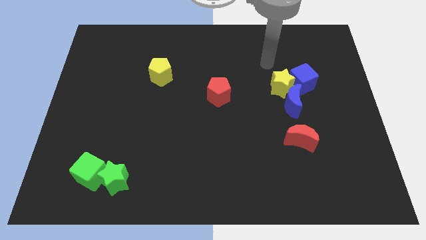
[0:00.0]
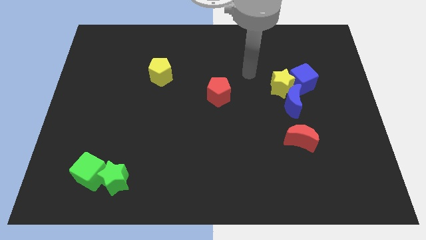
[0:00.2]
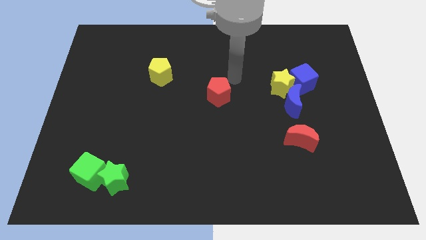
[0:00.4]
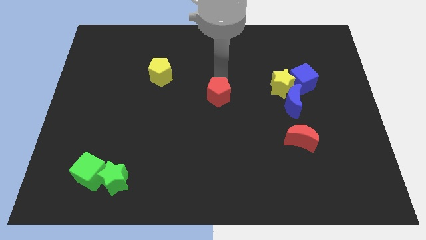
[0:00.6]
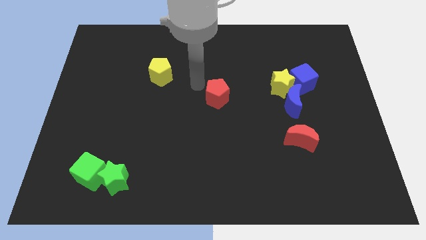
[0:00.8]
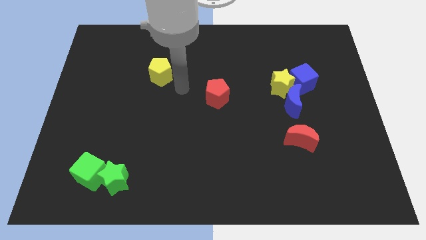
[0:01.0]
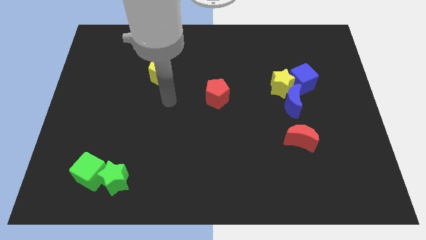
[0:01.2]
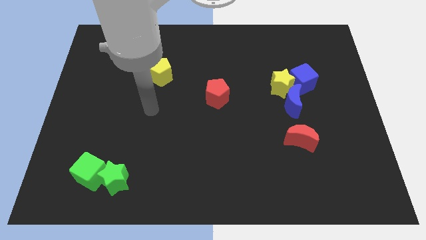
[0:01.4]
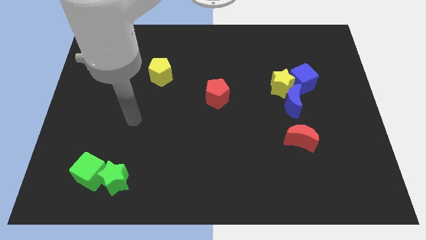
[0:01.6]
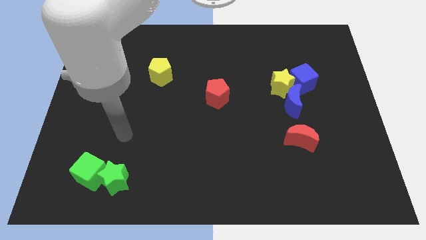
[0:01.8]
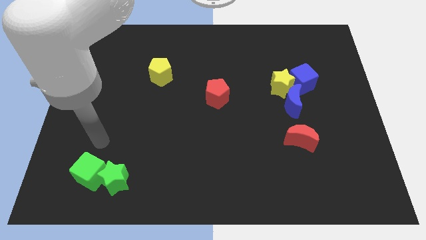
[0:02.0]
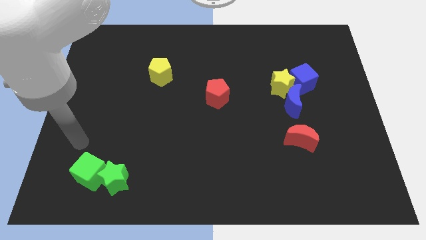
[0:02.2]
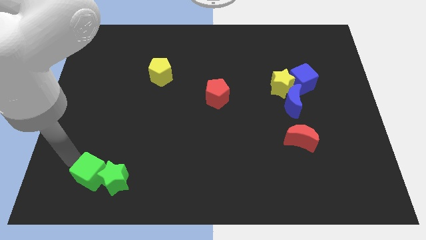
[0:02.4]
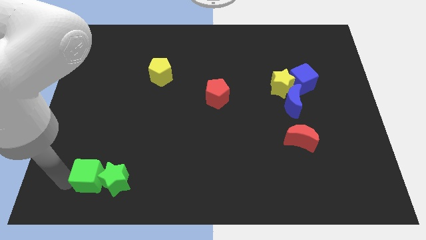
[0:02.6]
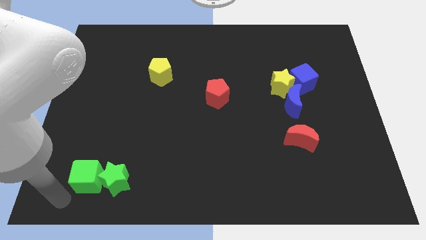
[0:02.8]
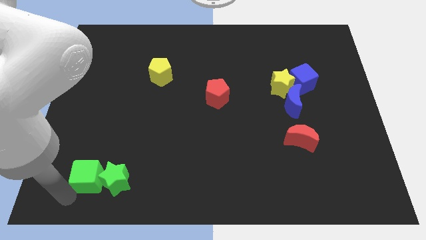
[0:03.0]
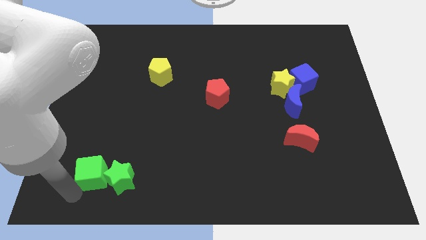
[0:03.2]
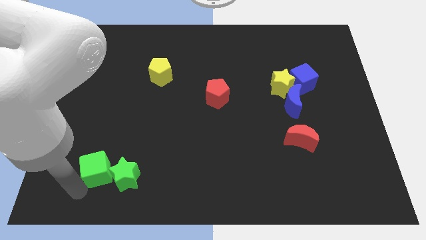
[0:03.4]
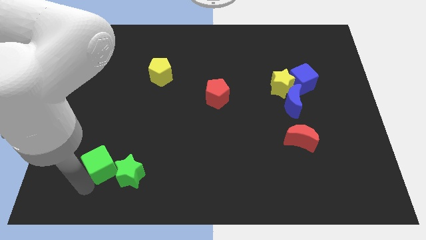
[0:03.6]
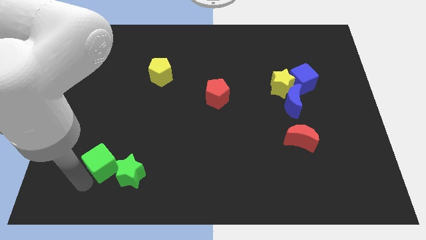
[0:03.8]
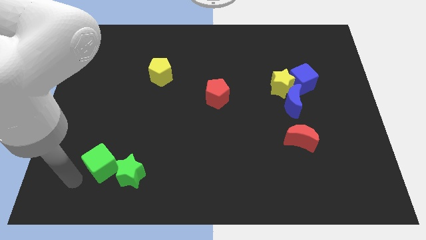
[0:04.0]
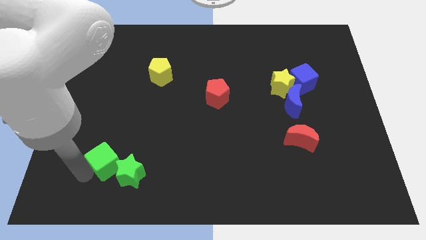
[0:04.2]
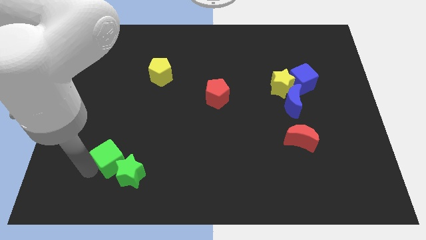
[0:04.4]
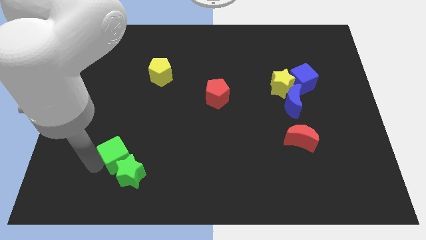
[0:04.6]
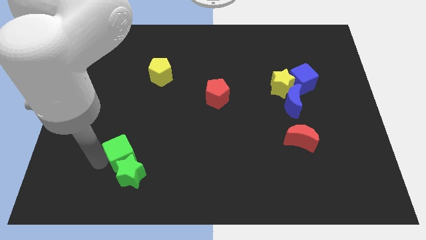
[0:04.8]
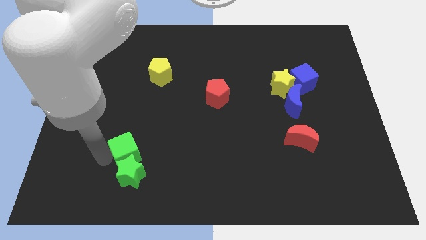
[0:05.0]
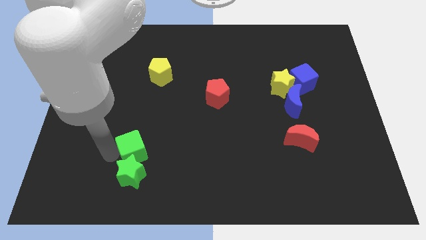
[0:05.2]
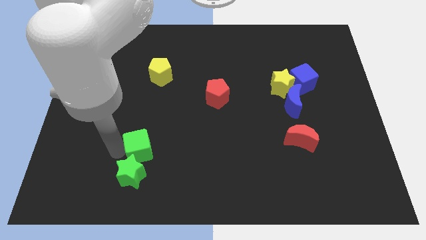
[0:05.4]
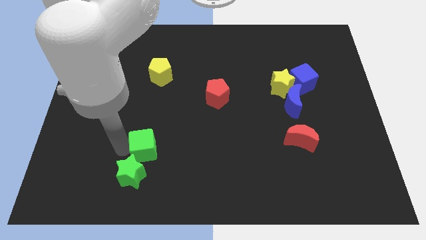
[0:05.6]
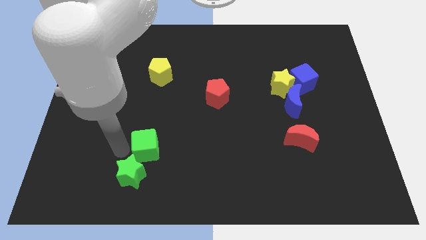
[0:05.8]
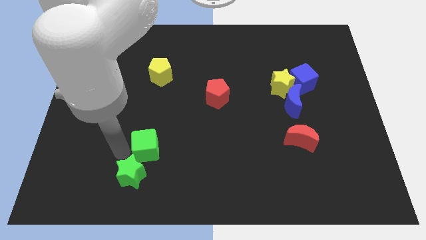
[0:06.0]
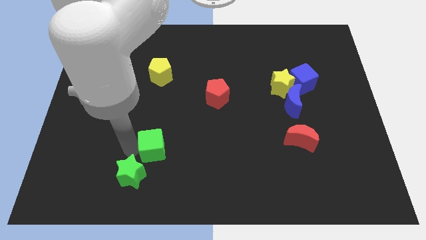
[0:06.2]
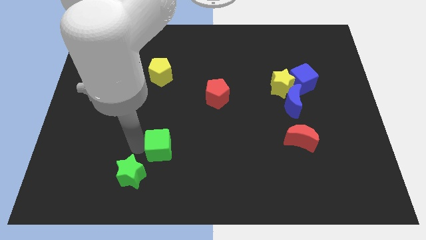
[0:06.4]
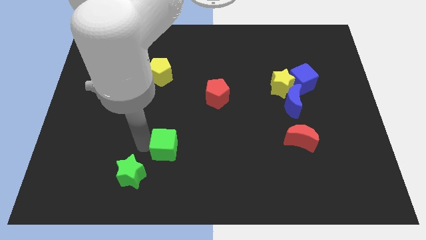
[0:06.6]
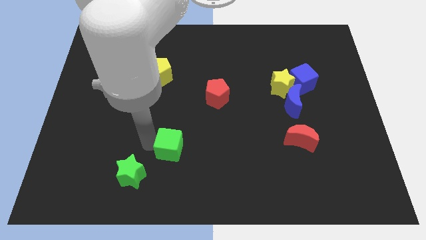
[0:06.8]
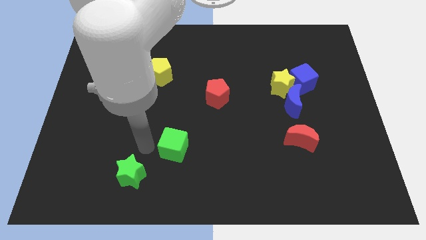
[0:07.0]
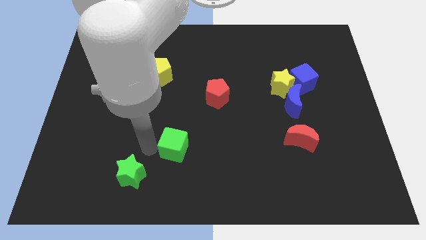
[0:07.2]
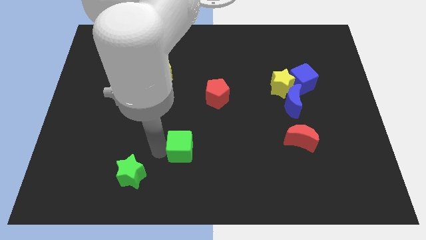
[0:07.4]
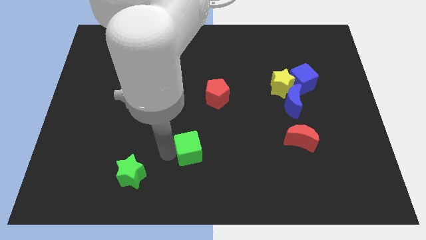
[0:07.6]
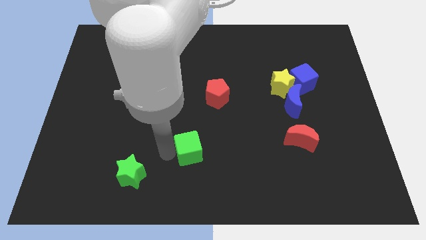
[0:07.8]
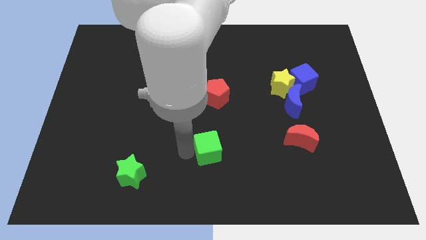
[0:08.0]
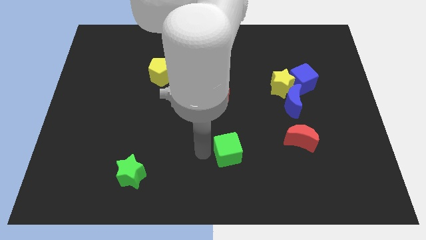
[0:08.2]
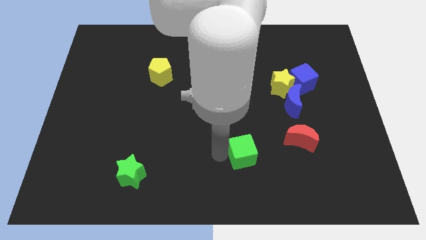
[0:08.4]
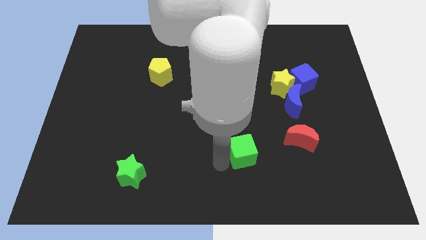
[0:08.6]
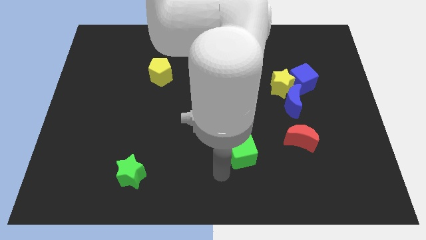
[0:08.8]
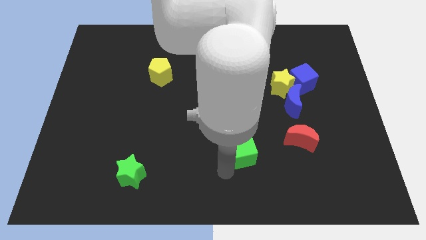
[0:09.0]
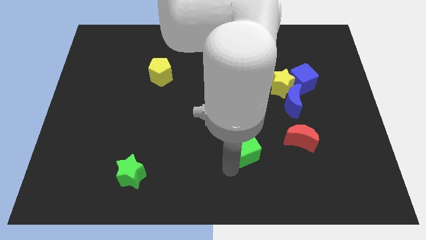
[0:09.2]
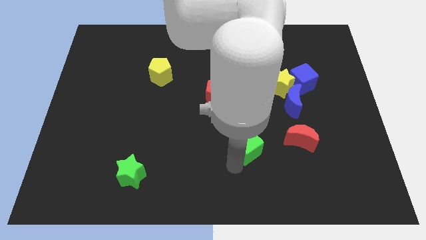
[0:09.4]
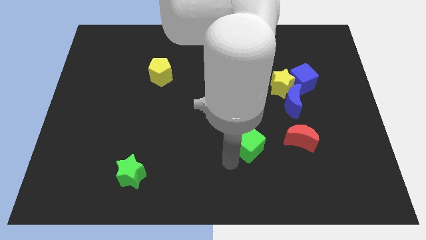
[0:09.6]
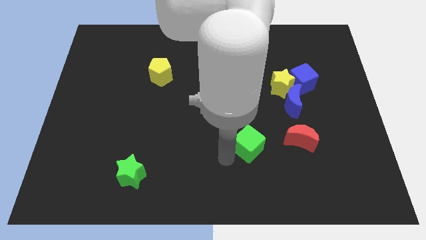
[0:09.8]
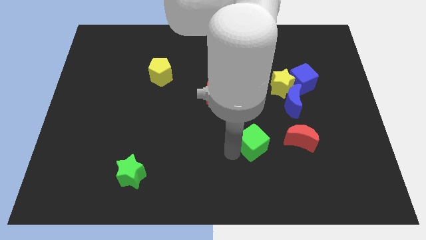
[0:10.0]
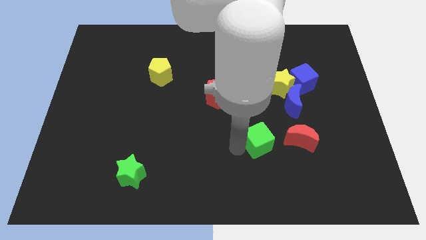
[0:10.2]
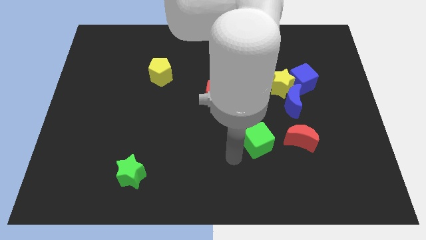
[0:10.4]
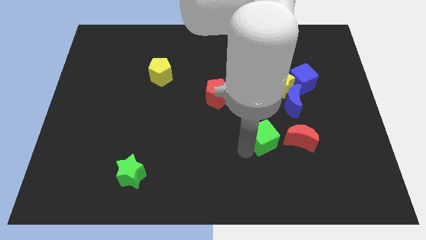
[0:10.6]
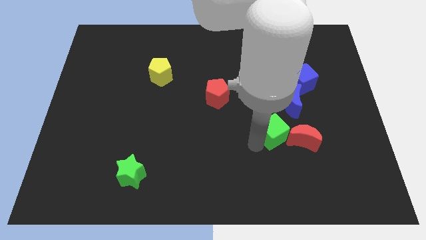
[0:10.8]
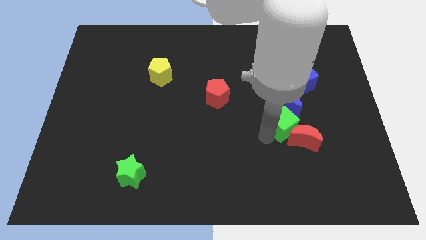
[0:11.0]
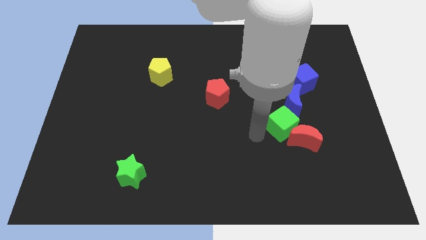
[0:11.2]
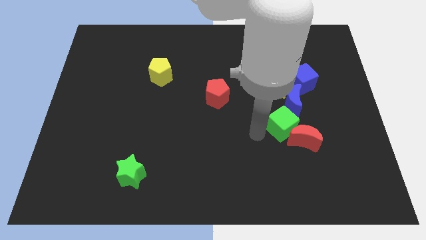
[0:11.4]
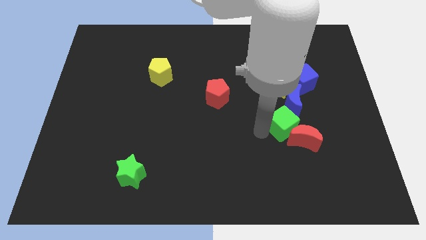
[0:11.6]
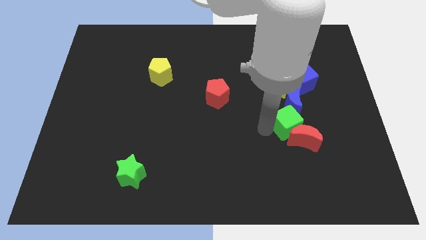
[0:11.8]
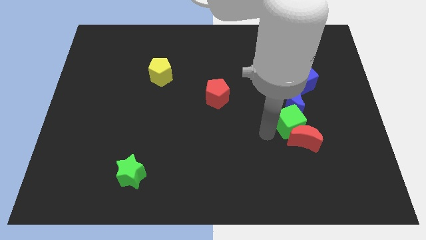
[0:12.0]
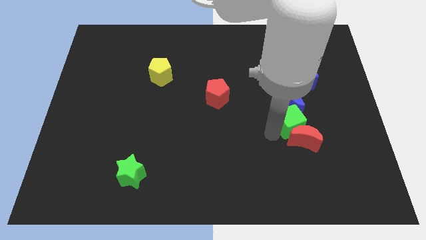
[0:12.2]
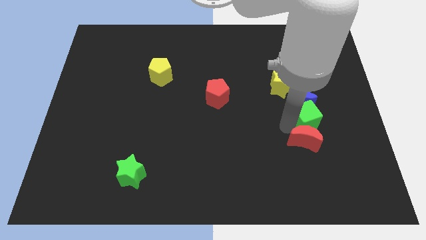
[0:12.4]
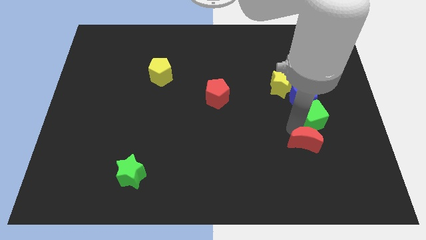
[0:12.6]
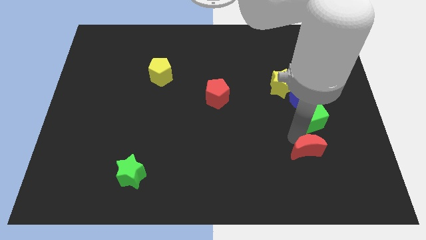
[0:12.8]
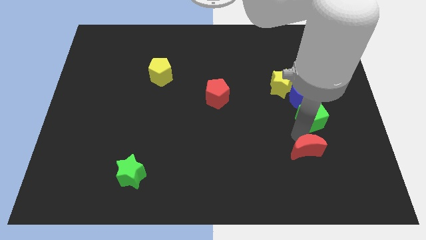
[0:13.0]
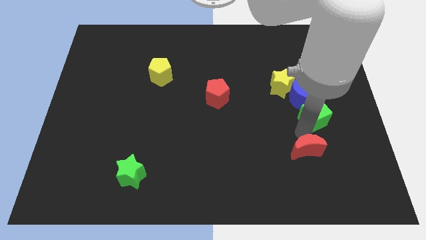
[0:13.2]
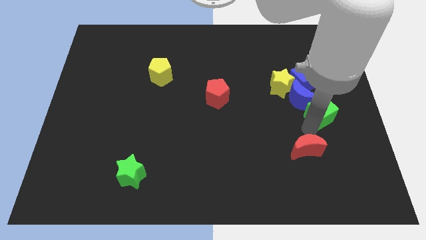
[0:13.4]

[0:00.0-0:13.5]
put the green cube to the right of the blue moon
